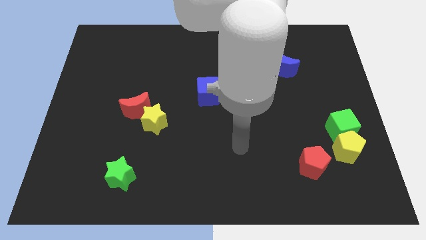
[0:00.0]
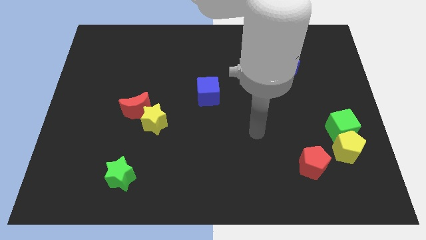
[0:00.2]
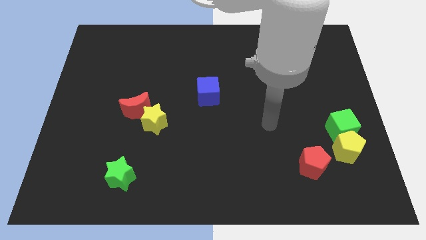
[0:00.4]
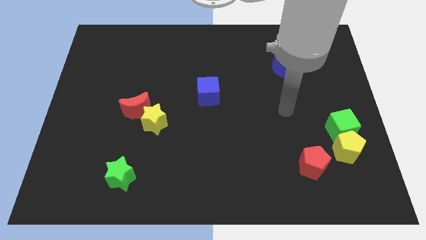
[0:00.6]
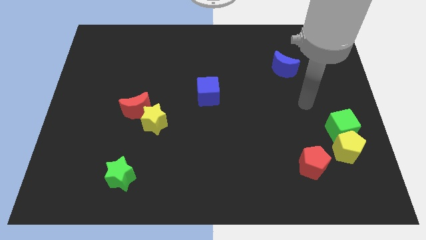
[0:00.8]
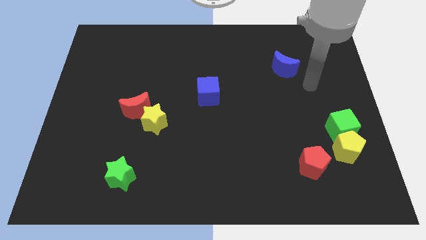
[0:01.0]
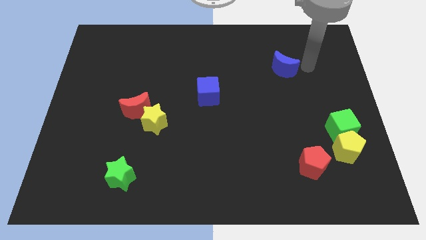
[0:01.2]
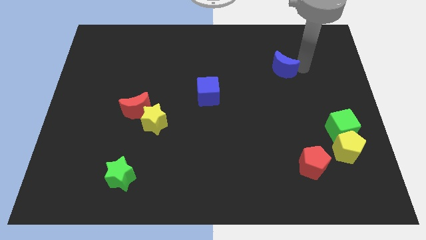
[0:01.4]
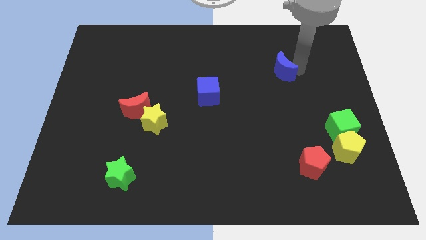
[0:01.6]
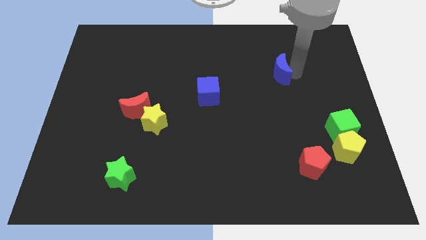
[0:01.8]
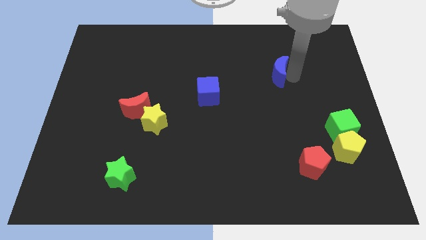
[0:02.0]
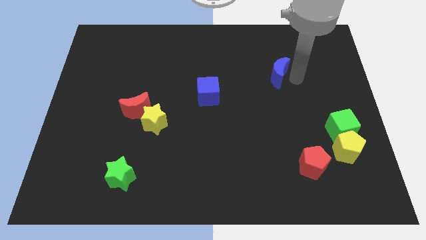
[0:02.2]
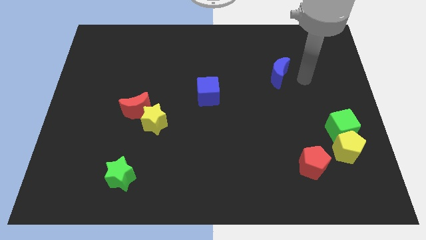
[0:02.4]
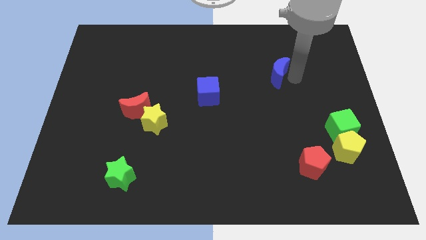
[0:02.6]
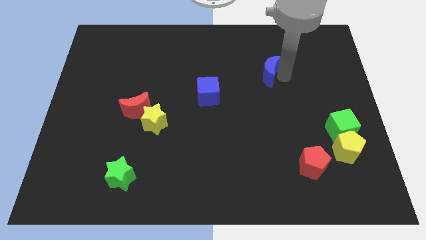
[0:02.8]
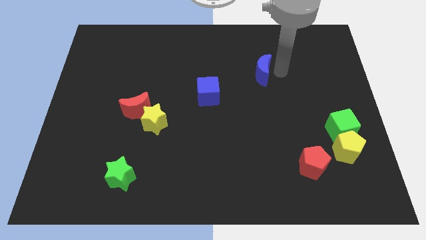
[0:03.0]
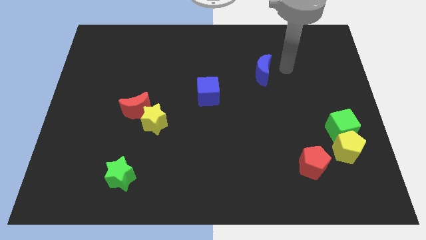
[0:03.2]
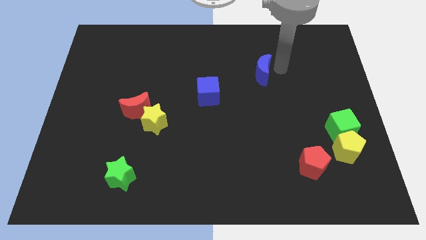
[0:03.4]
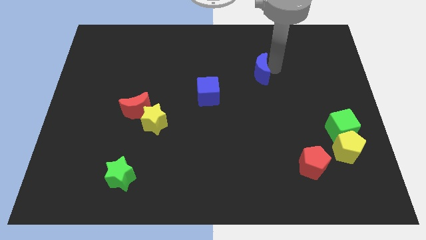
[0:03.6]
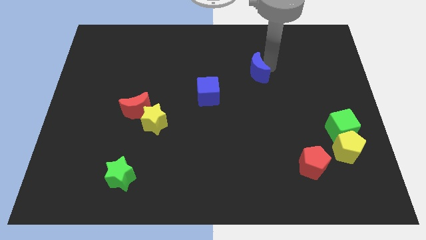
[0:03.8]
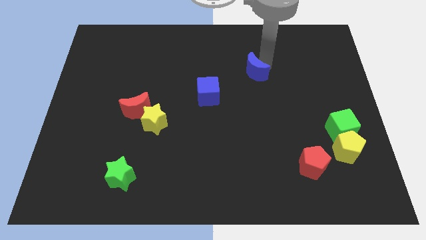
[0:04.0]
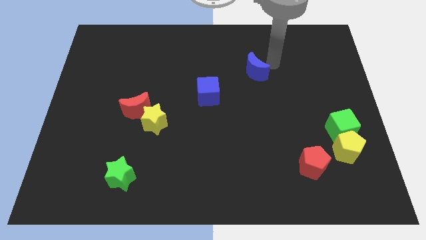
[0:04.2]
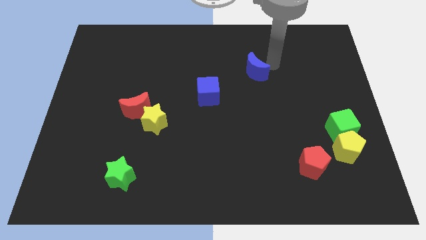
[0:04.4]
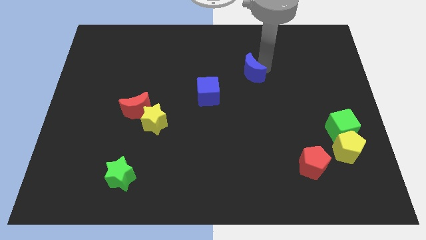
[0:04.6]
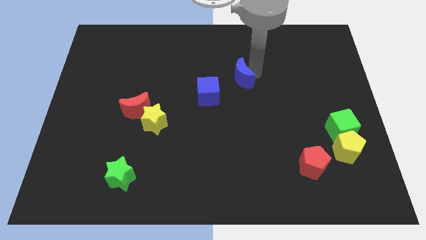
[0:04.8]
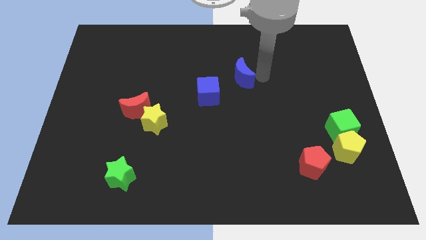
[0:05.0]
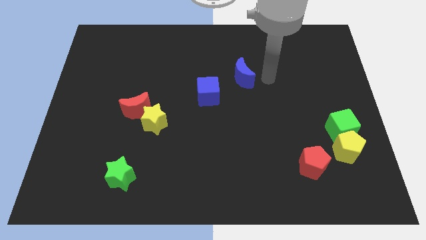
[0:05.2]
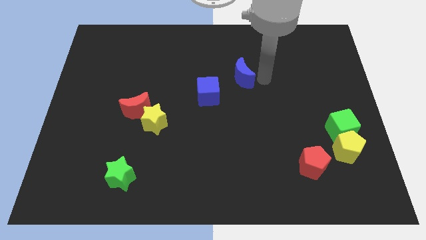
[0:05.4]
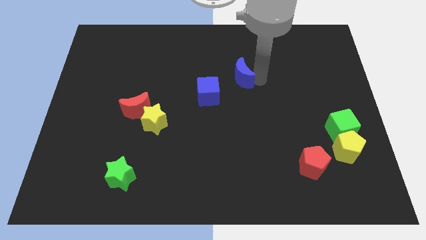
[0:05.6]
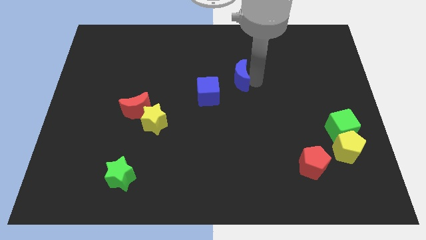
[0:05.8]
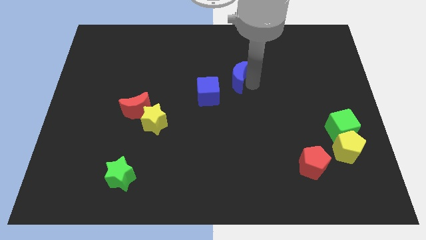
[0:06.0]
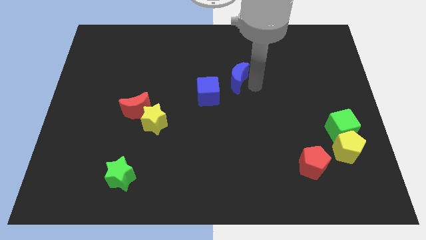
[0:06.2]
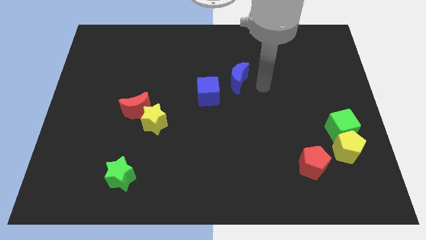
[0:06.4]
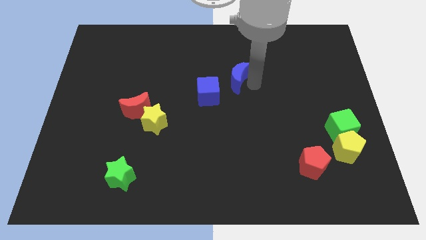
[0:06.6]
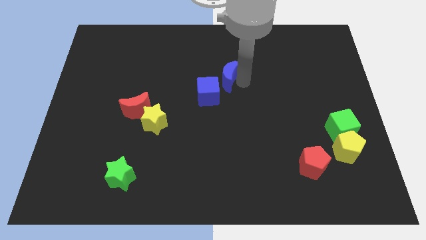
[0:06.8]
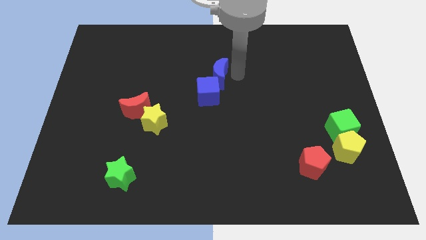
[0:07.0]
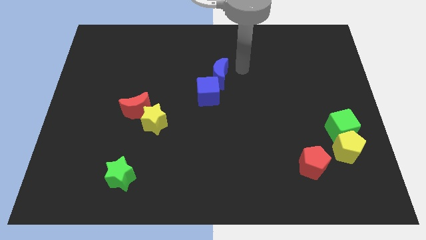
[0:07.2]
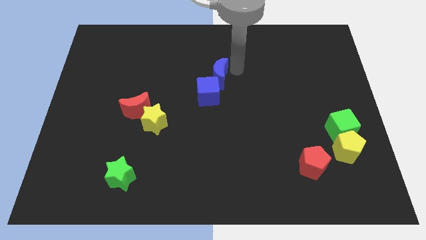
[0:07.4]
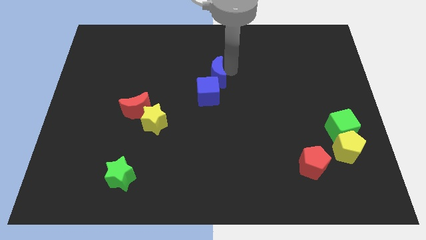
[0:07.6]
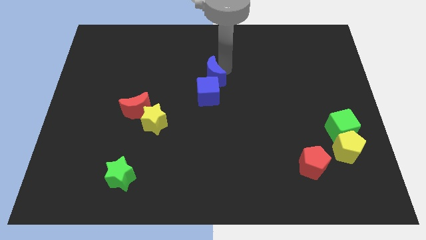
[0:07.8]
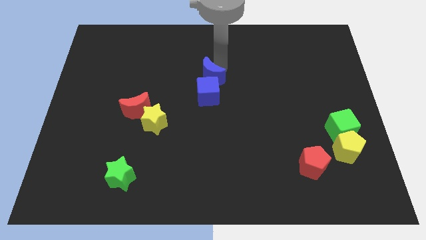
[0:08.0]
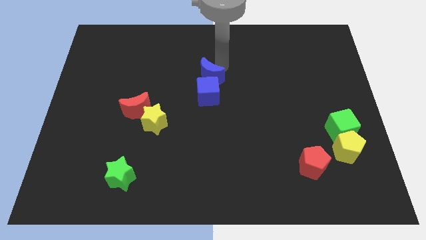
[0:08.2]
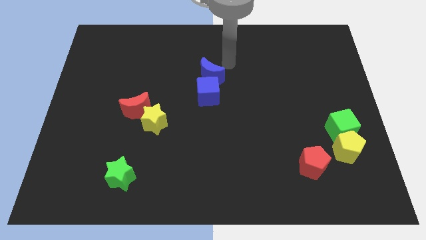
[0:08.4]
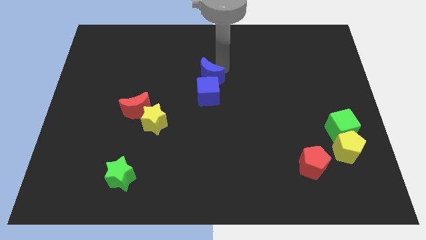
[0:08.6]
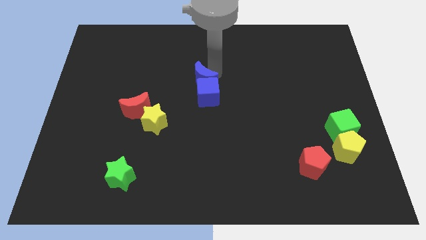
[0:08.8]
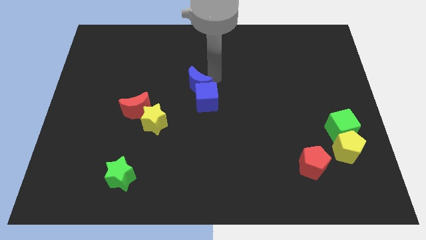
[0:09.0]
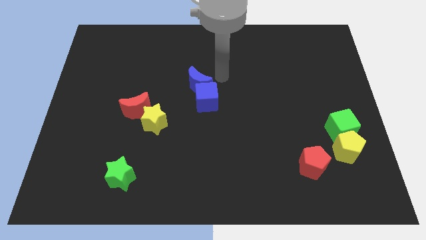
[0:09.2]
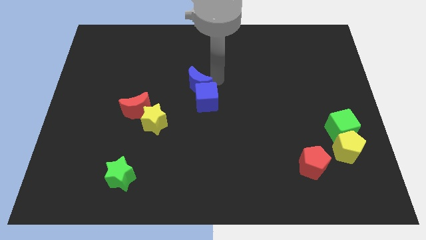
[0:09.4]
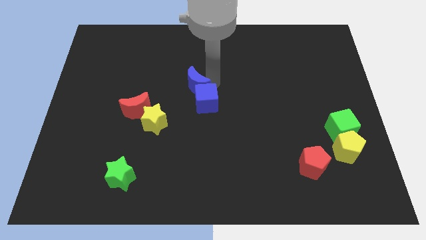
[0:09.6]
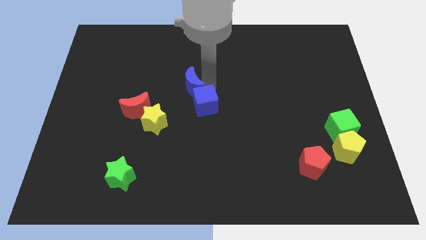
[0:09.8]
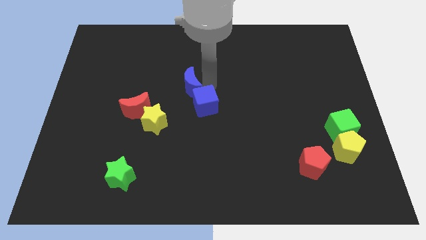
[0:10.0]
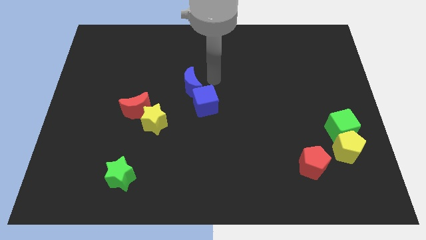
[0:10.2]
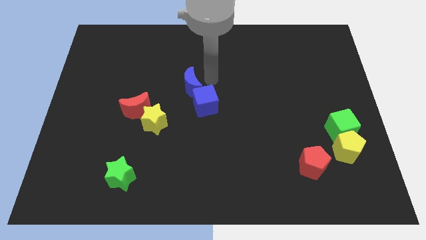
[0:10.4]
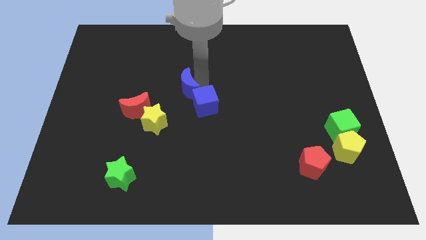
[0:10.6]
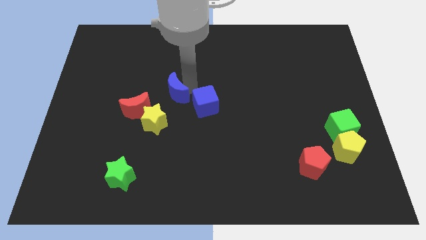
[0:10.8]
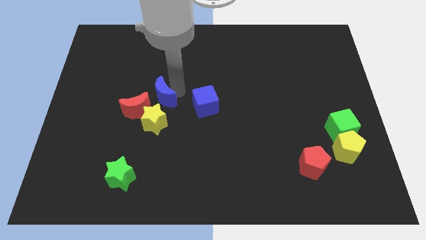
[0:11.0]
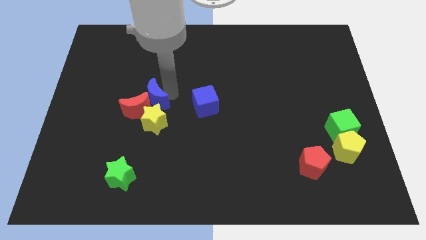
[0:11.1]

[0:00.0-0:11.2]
slide the blue moon to the red moon

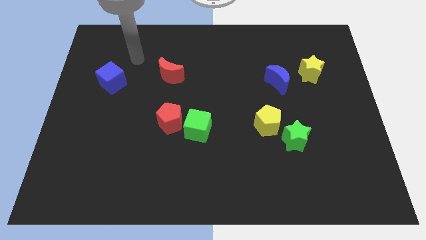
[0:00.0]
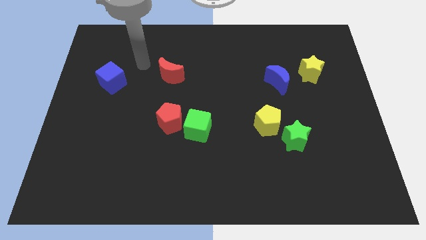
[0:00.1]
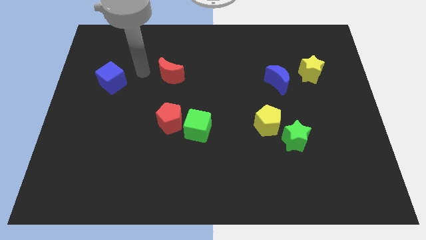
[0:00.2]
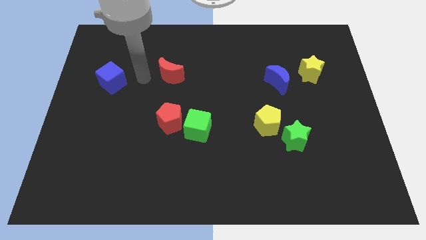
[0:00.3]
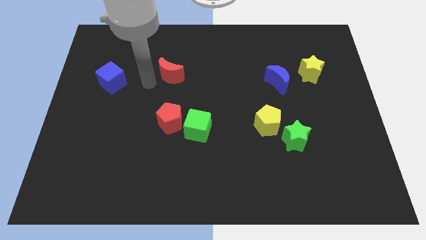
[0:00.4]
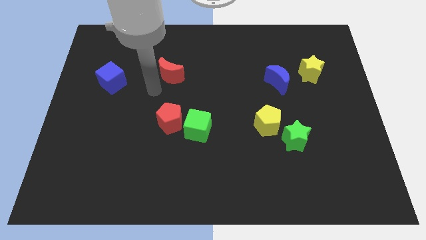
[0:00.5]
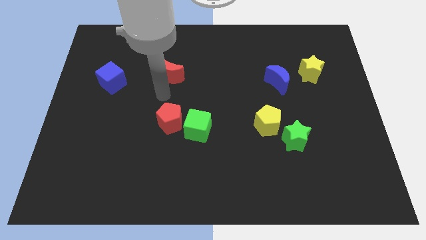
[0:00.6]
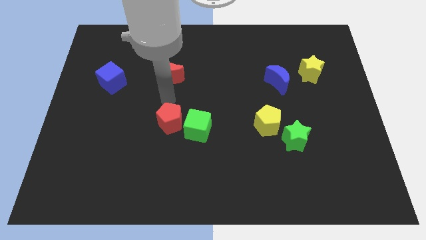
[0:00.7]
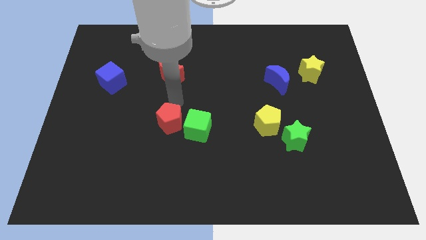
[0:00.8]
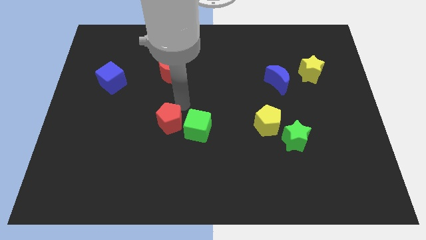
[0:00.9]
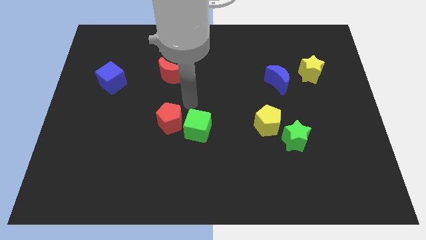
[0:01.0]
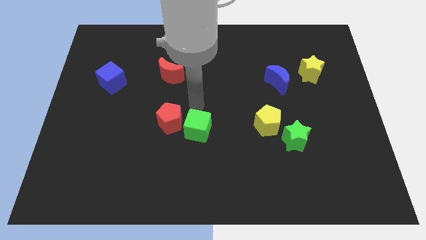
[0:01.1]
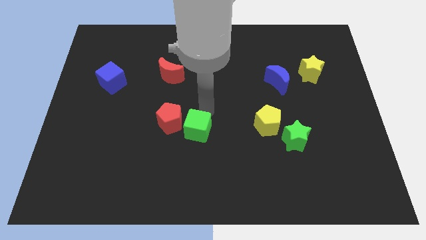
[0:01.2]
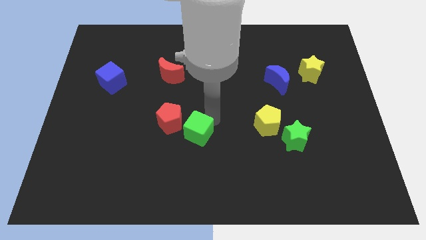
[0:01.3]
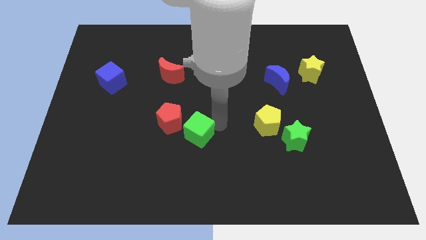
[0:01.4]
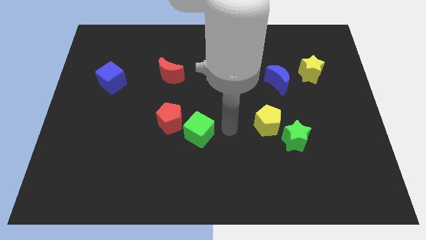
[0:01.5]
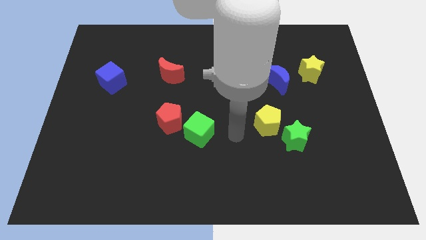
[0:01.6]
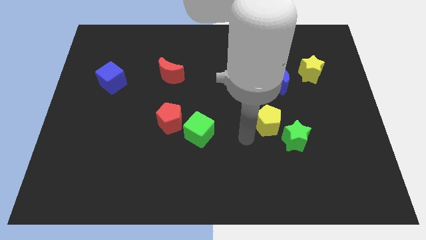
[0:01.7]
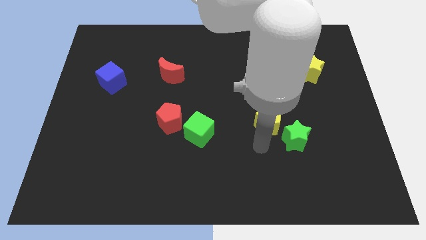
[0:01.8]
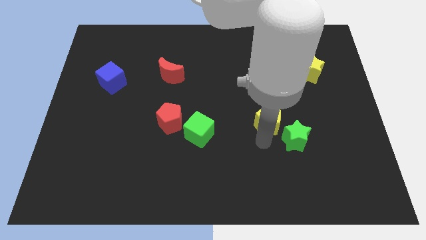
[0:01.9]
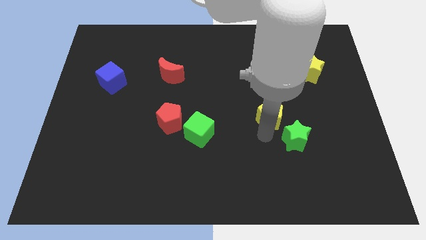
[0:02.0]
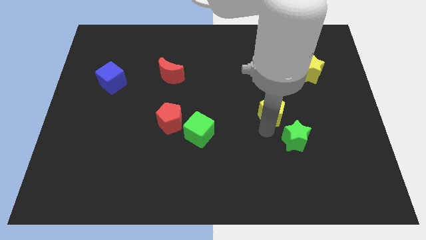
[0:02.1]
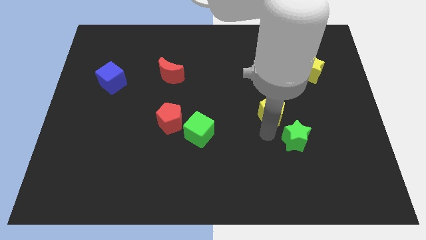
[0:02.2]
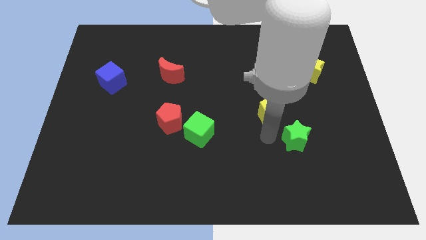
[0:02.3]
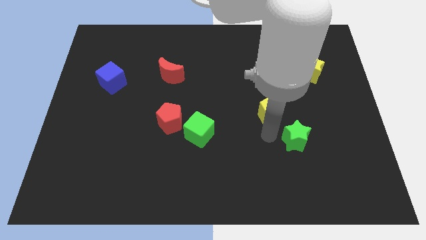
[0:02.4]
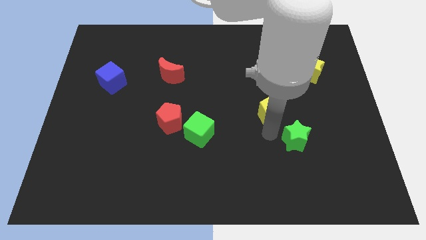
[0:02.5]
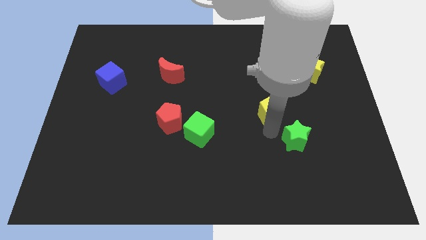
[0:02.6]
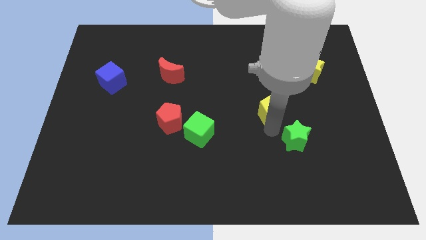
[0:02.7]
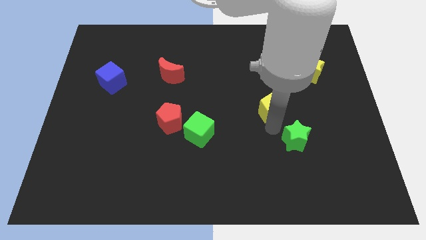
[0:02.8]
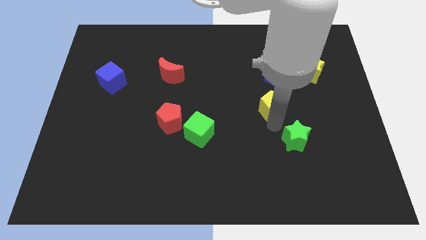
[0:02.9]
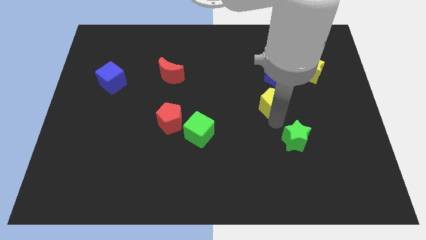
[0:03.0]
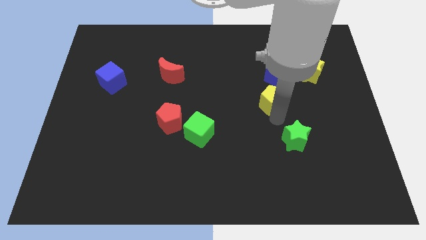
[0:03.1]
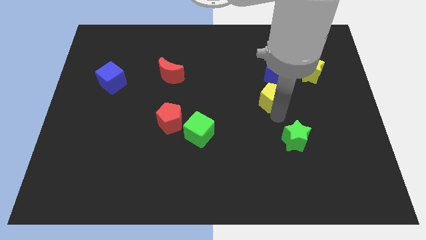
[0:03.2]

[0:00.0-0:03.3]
move the yellow pentagon next to the blue moon
